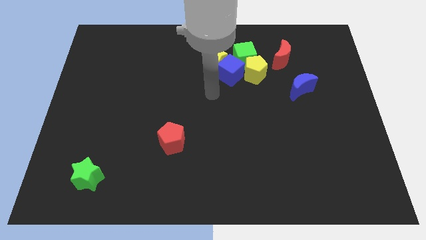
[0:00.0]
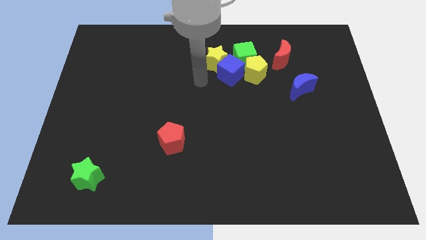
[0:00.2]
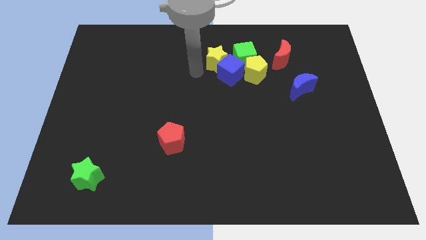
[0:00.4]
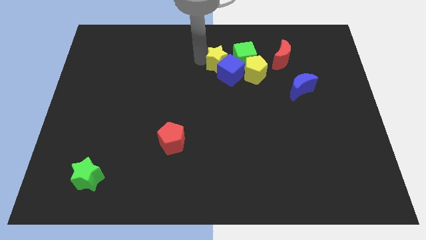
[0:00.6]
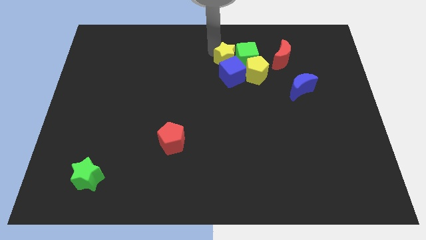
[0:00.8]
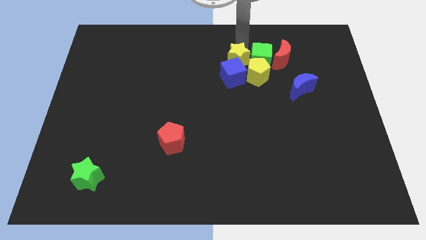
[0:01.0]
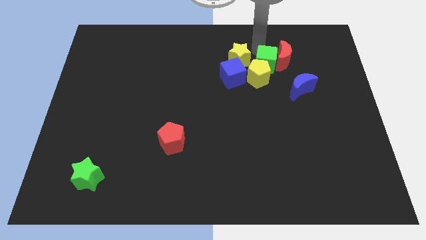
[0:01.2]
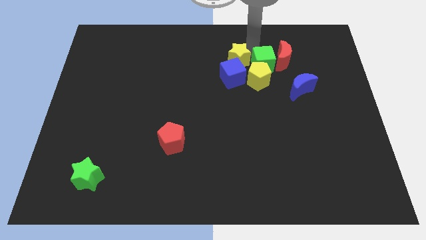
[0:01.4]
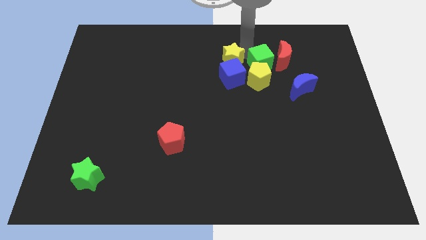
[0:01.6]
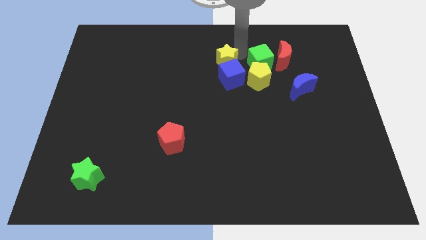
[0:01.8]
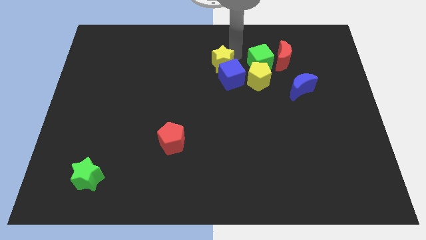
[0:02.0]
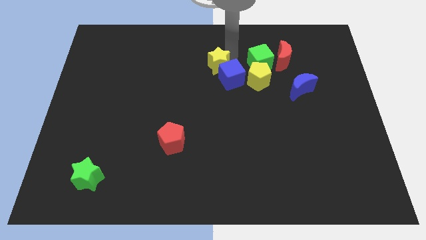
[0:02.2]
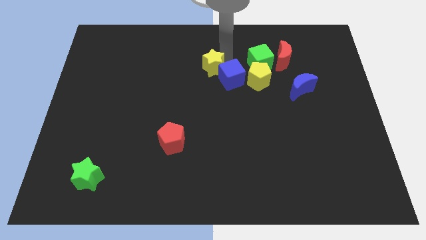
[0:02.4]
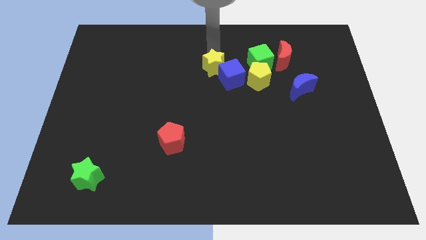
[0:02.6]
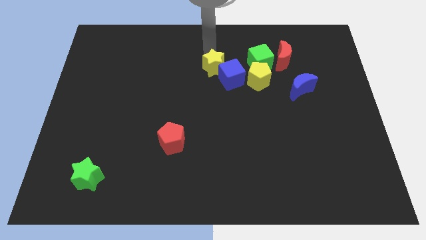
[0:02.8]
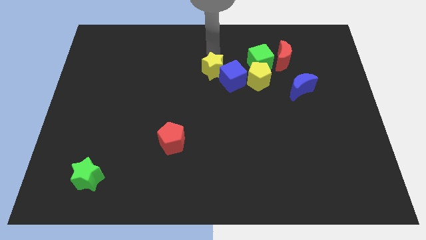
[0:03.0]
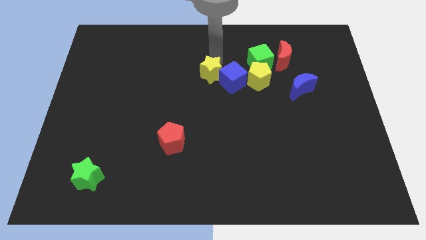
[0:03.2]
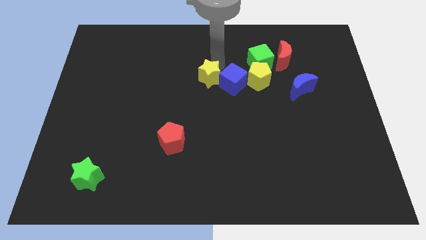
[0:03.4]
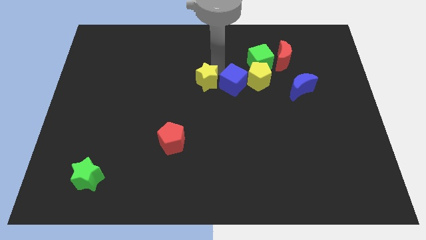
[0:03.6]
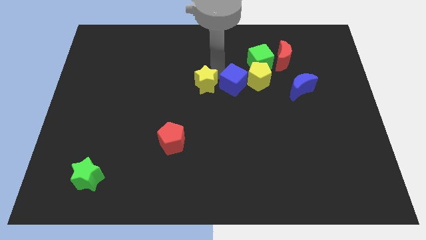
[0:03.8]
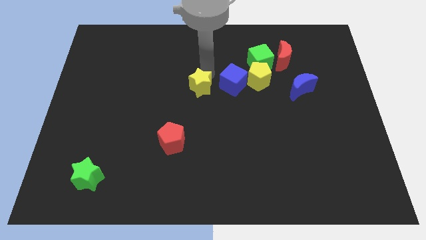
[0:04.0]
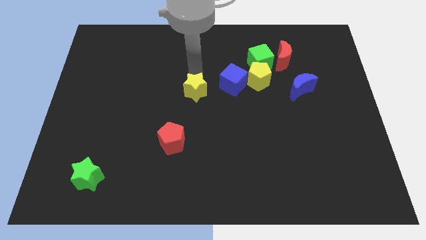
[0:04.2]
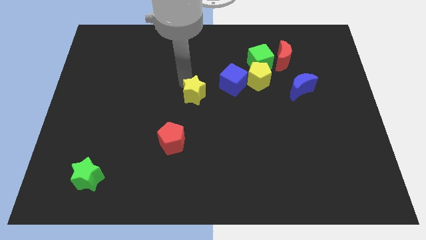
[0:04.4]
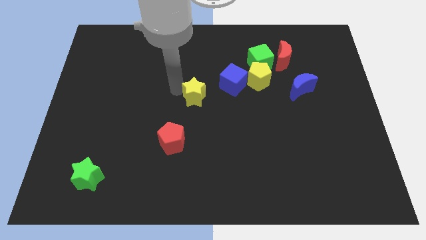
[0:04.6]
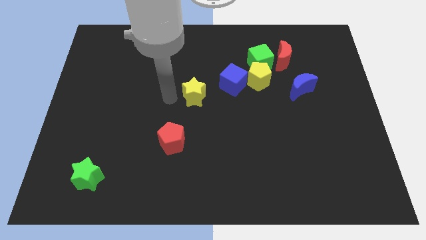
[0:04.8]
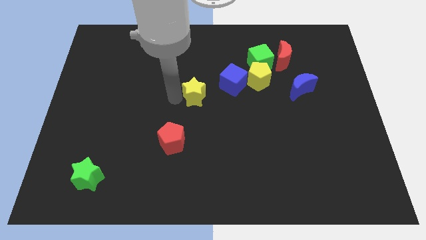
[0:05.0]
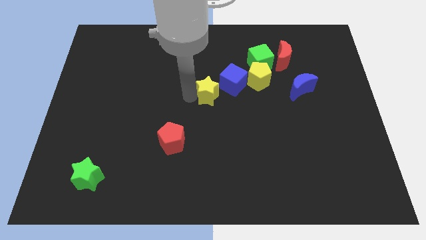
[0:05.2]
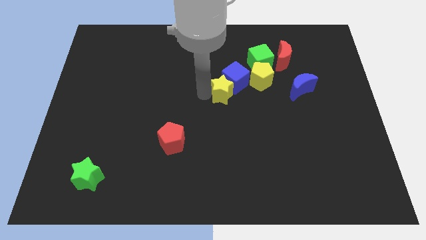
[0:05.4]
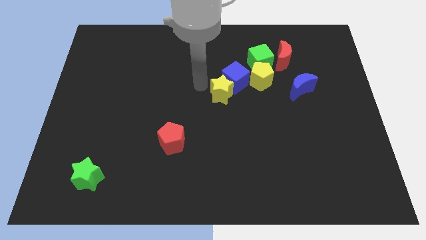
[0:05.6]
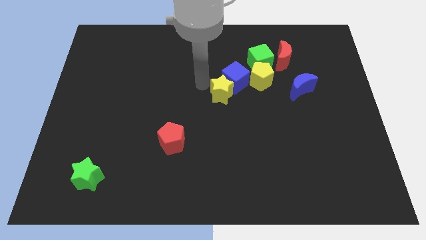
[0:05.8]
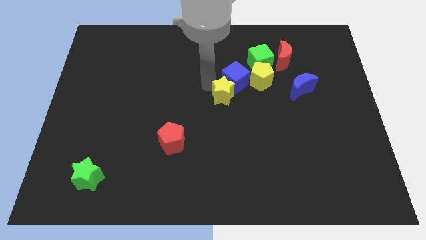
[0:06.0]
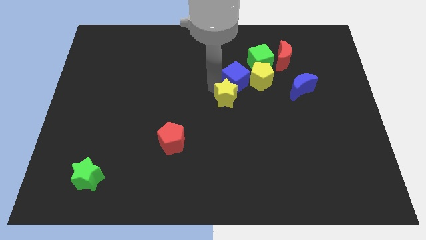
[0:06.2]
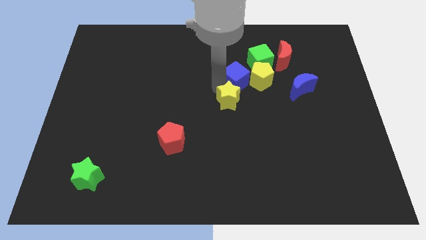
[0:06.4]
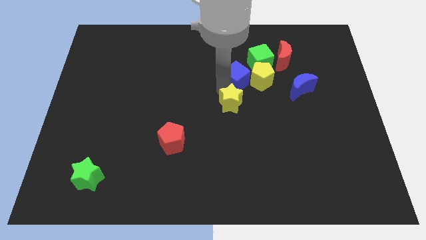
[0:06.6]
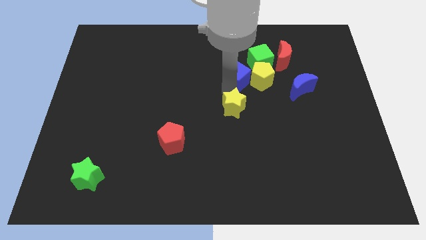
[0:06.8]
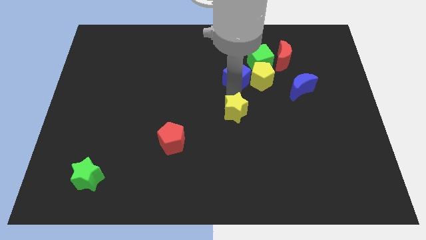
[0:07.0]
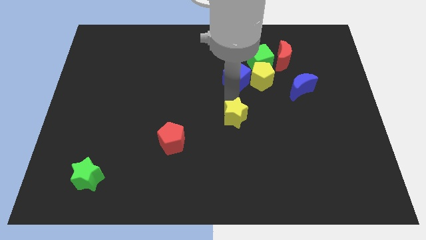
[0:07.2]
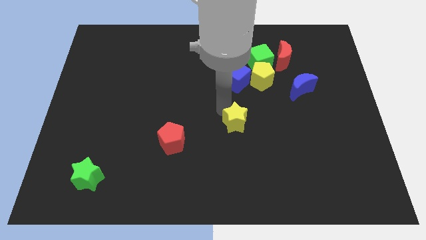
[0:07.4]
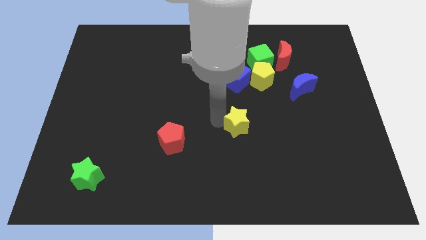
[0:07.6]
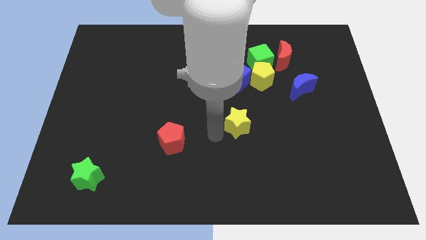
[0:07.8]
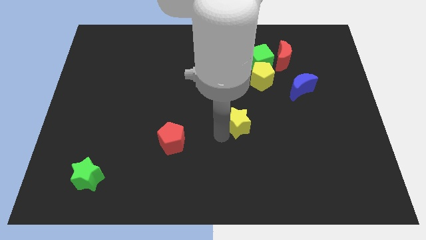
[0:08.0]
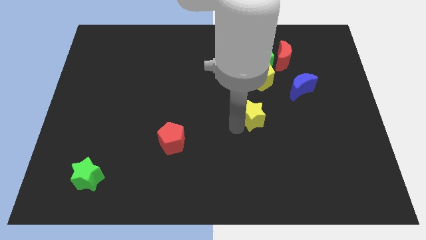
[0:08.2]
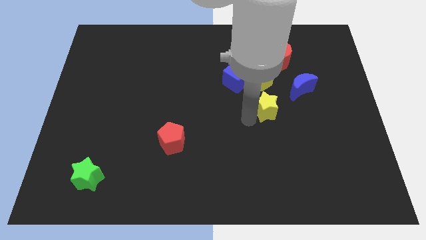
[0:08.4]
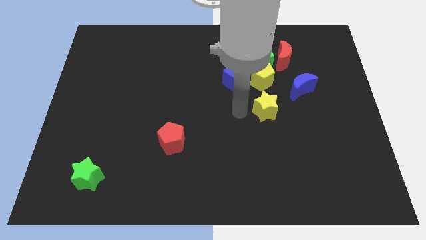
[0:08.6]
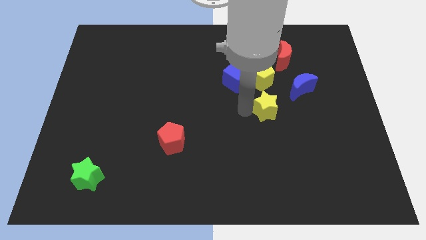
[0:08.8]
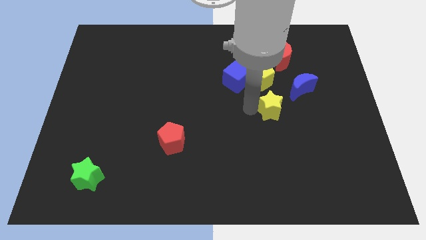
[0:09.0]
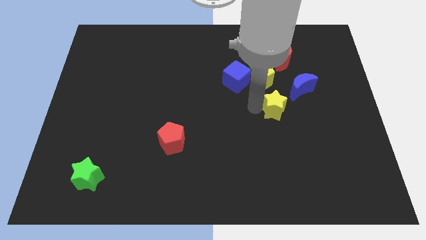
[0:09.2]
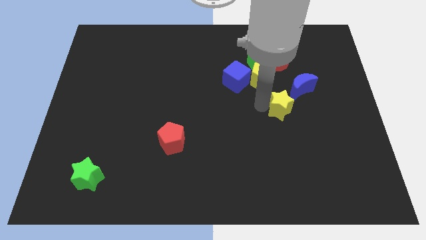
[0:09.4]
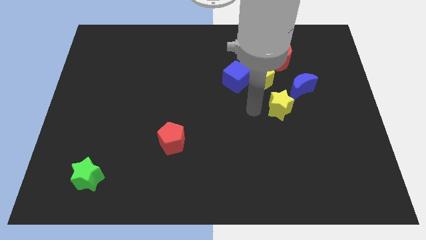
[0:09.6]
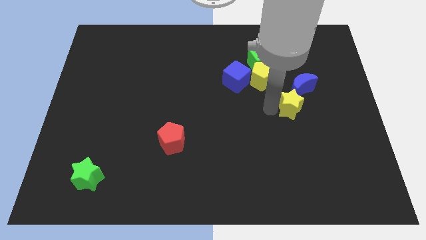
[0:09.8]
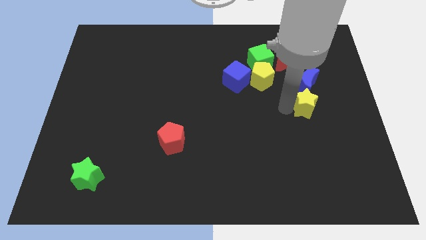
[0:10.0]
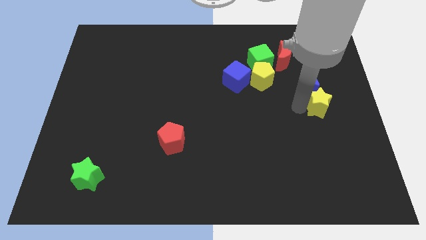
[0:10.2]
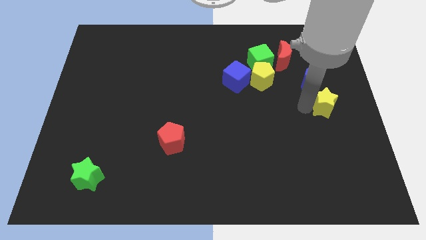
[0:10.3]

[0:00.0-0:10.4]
slide the yellow star to the right side of the board

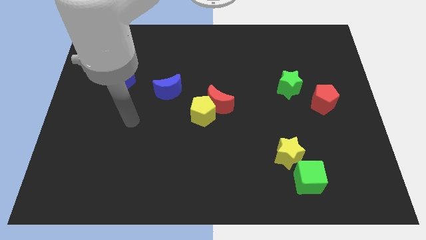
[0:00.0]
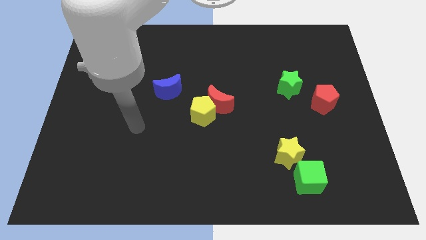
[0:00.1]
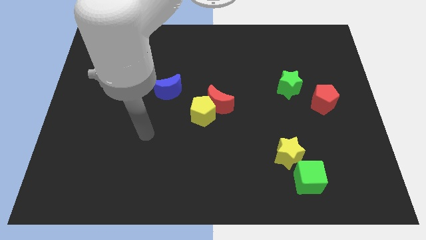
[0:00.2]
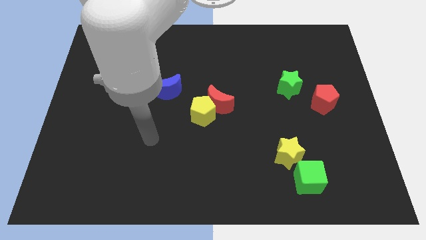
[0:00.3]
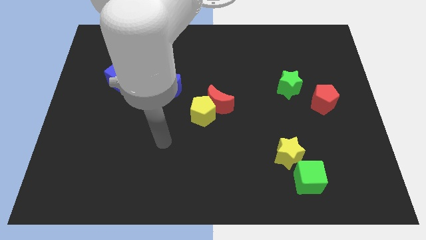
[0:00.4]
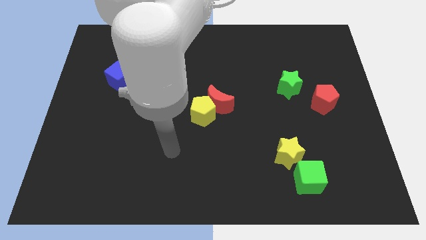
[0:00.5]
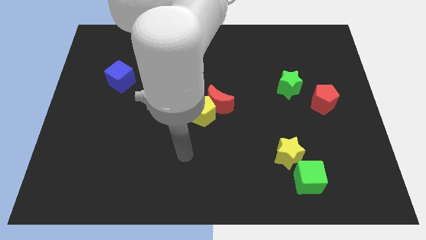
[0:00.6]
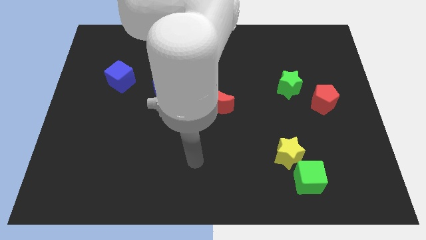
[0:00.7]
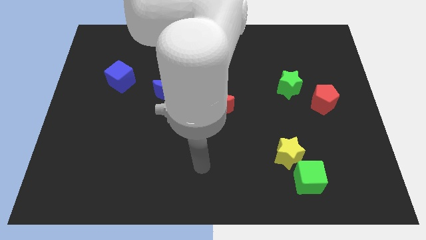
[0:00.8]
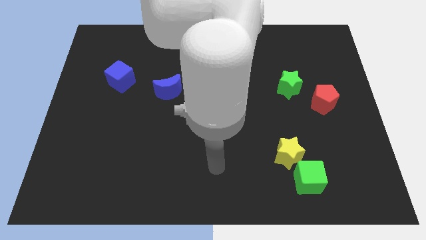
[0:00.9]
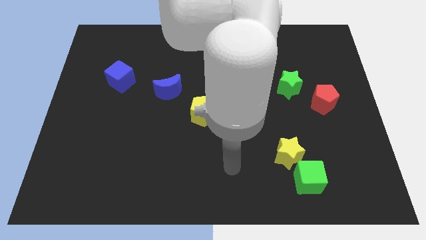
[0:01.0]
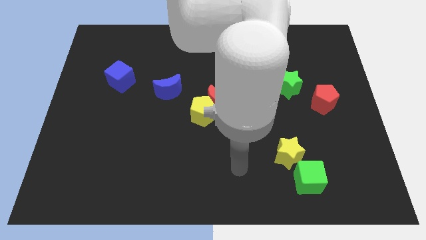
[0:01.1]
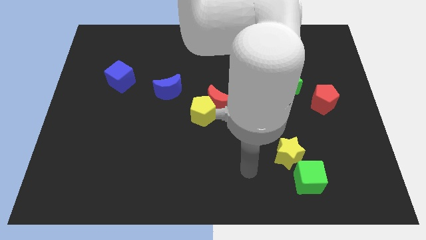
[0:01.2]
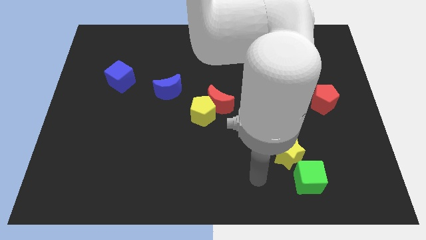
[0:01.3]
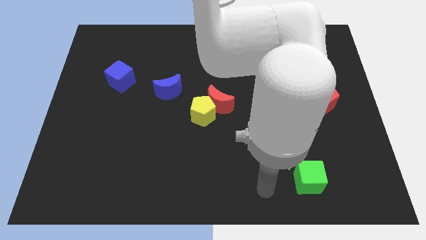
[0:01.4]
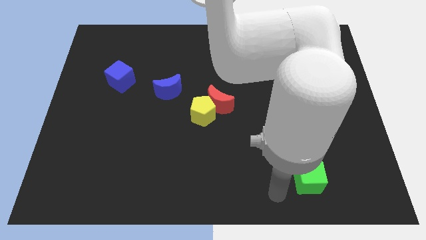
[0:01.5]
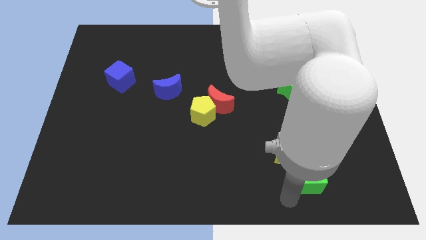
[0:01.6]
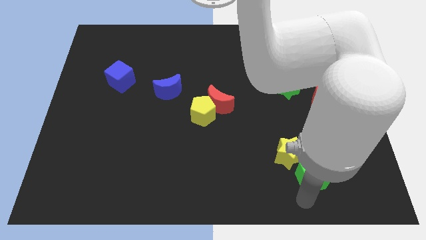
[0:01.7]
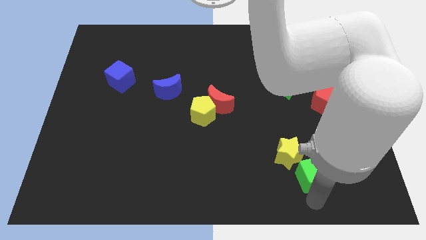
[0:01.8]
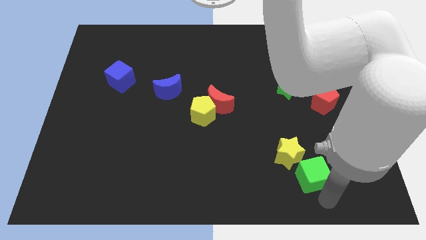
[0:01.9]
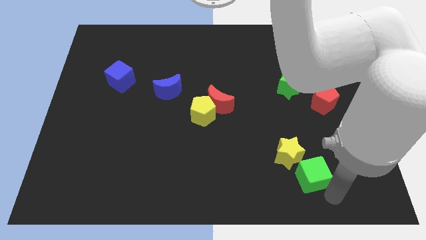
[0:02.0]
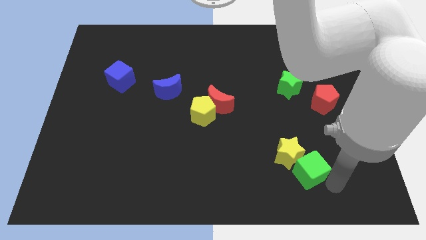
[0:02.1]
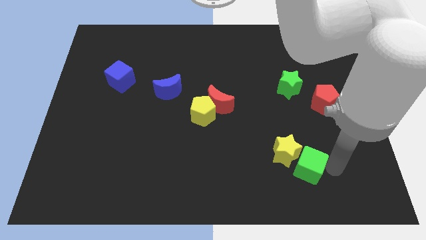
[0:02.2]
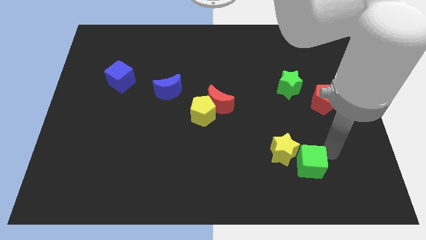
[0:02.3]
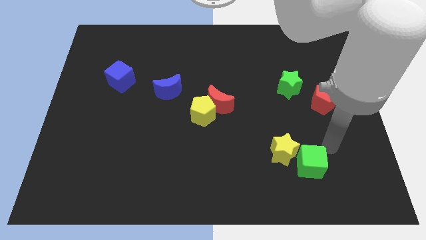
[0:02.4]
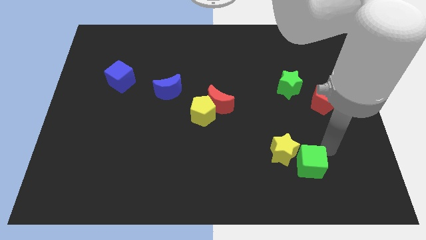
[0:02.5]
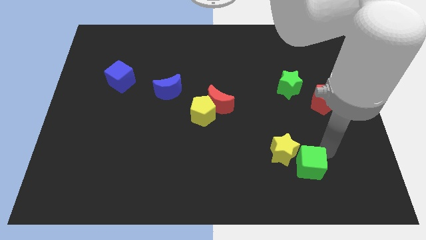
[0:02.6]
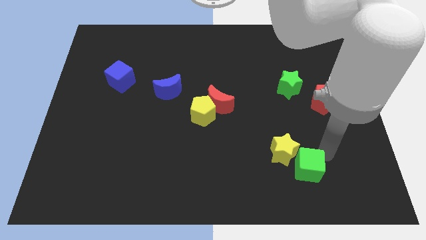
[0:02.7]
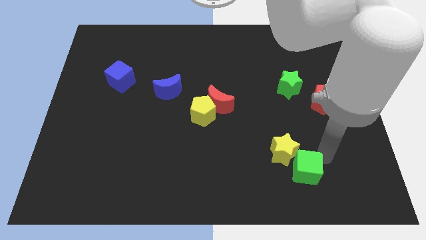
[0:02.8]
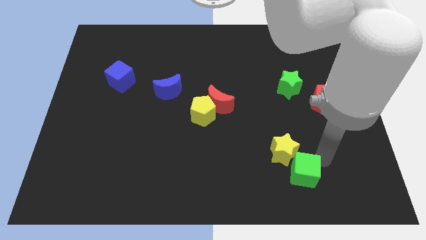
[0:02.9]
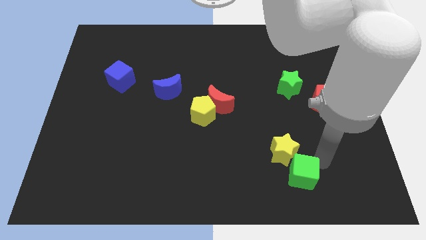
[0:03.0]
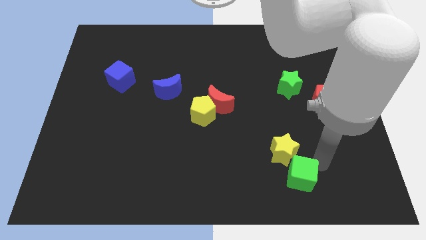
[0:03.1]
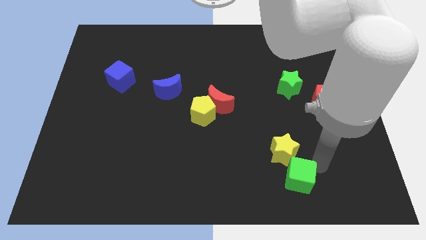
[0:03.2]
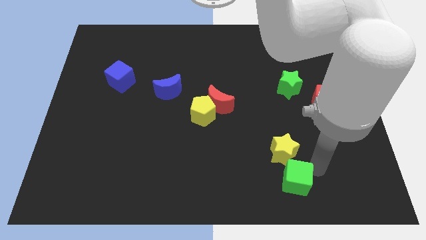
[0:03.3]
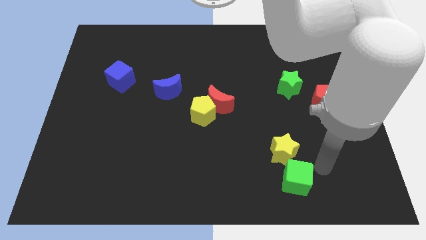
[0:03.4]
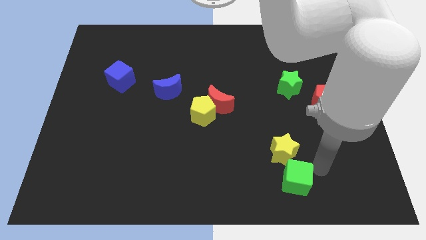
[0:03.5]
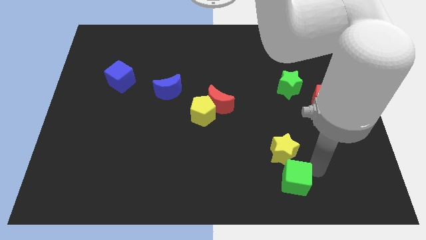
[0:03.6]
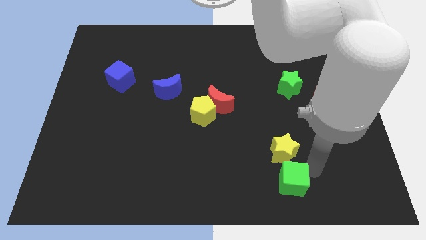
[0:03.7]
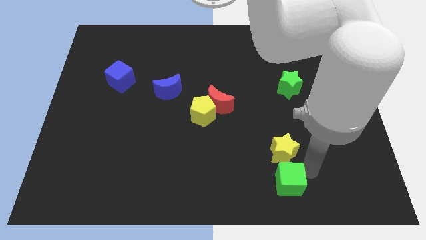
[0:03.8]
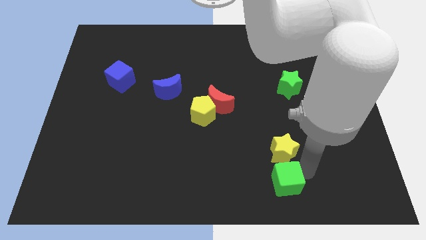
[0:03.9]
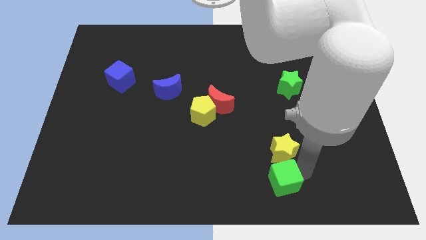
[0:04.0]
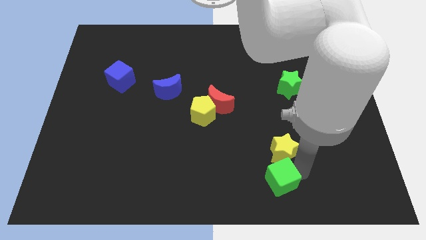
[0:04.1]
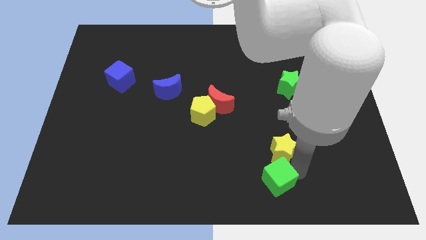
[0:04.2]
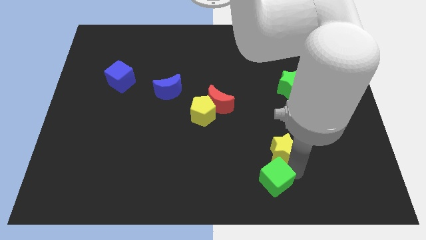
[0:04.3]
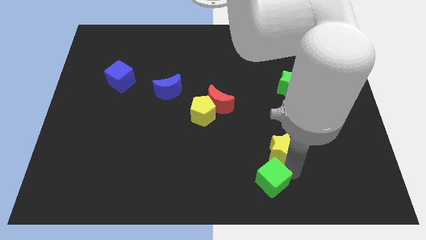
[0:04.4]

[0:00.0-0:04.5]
slide the green cube to the bottom
